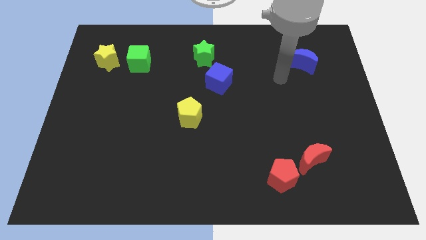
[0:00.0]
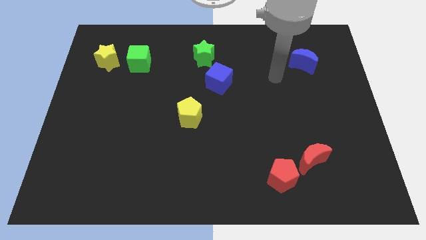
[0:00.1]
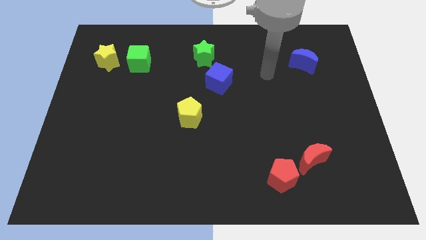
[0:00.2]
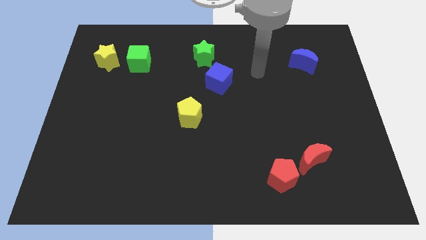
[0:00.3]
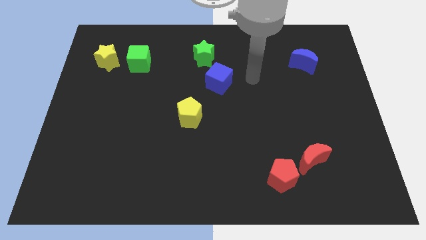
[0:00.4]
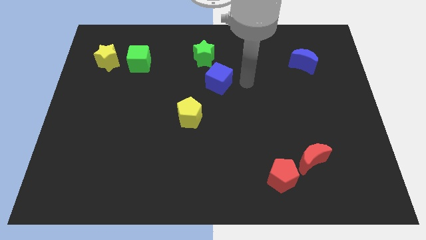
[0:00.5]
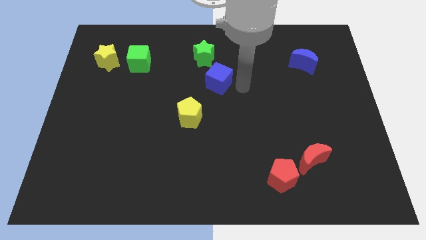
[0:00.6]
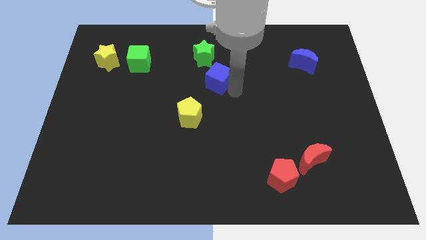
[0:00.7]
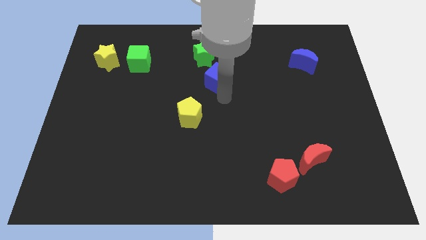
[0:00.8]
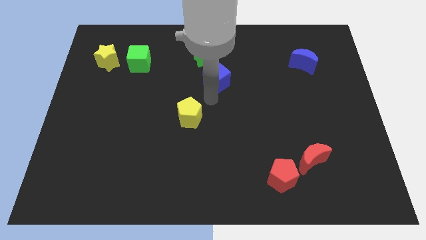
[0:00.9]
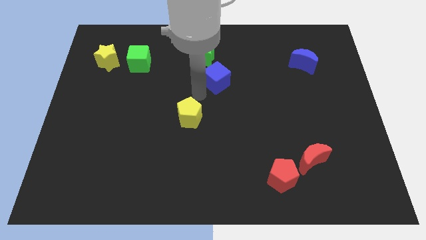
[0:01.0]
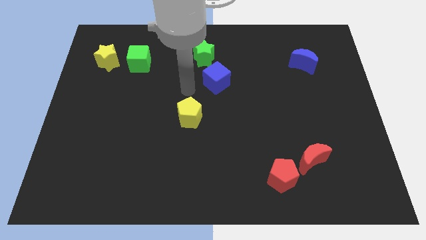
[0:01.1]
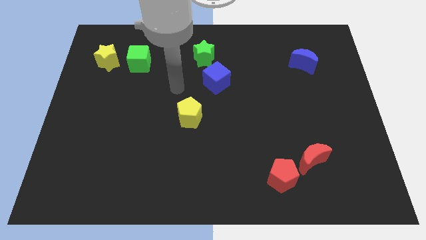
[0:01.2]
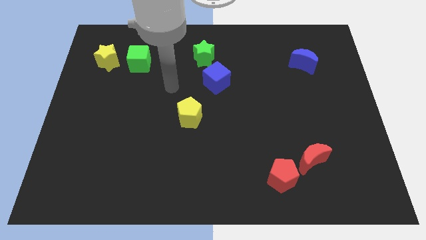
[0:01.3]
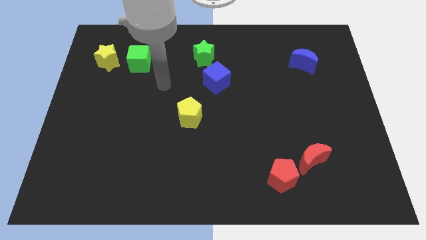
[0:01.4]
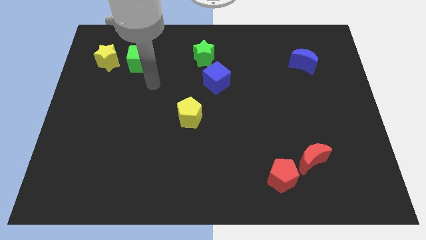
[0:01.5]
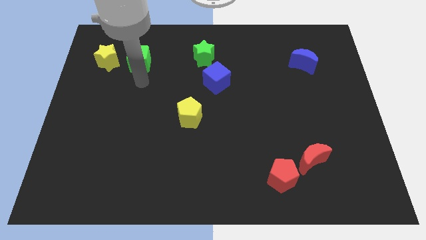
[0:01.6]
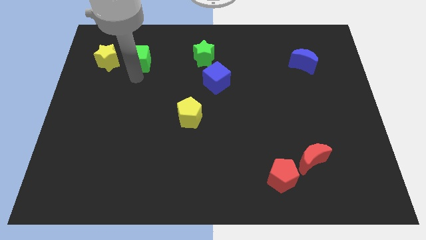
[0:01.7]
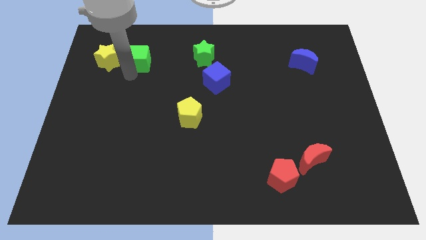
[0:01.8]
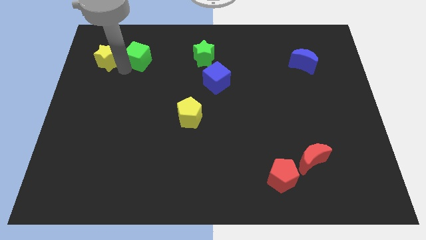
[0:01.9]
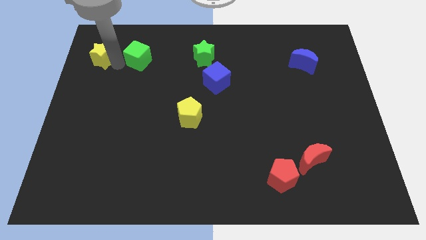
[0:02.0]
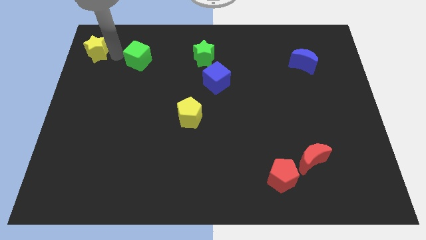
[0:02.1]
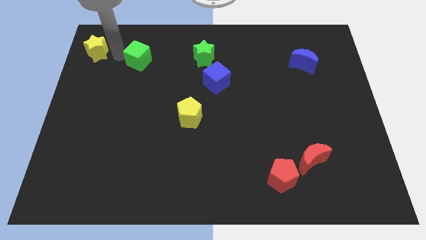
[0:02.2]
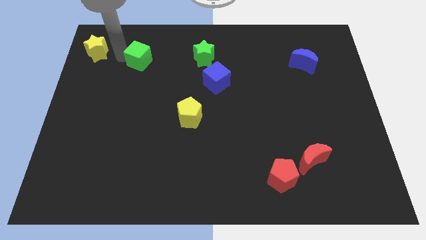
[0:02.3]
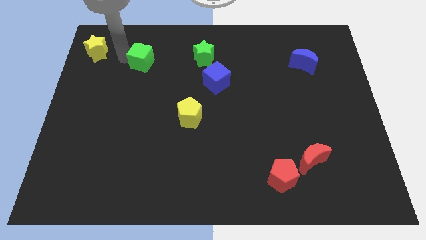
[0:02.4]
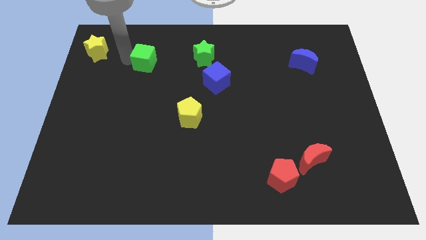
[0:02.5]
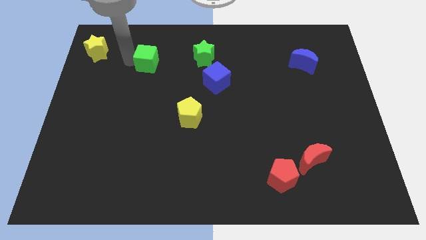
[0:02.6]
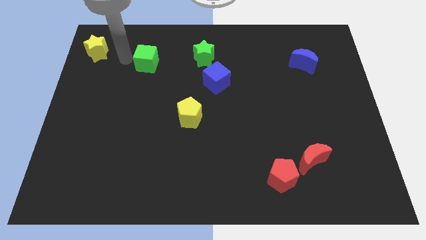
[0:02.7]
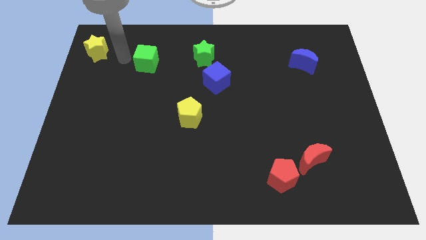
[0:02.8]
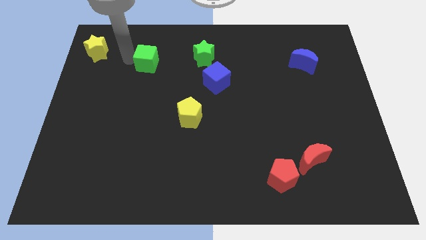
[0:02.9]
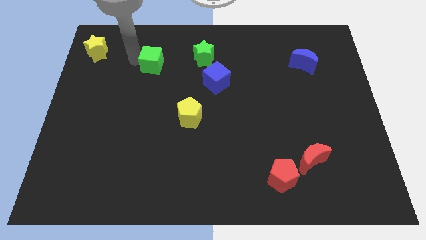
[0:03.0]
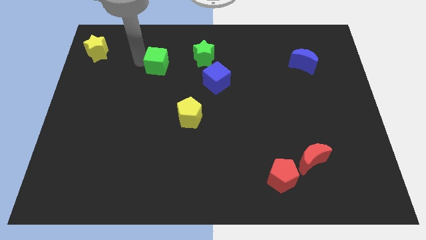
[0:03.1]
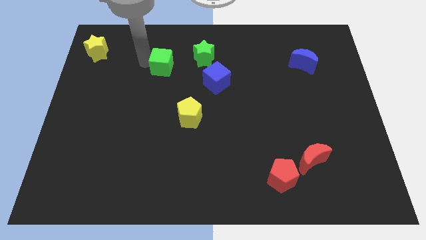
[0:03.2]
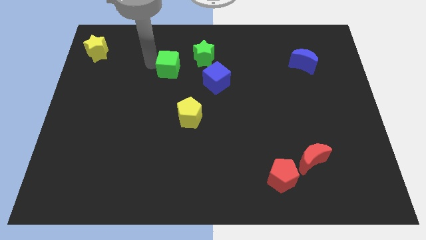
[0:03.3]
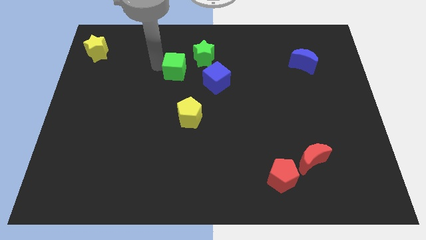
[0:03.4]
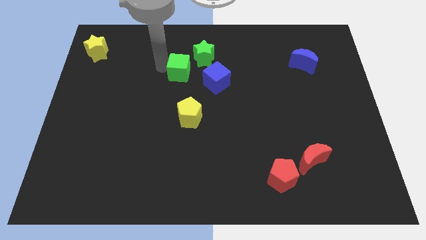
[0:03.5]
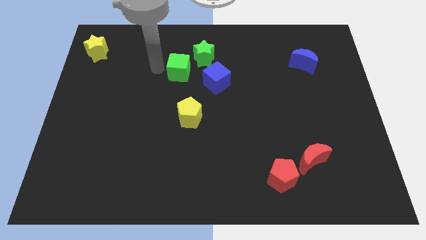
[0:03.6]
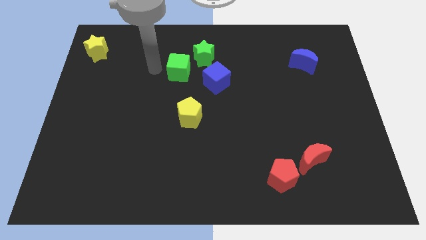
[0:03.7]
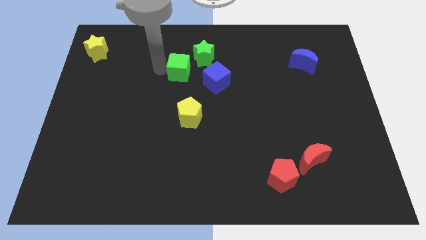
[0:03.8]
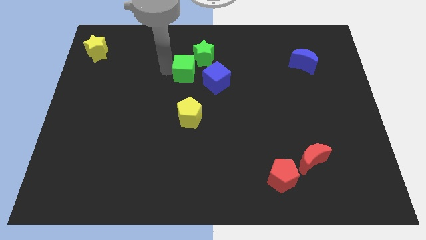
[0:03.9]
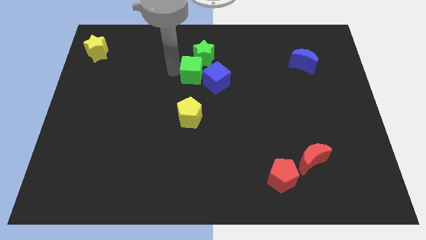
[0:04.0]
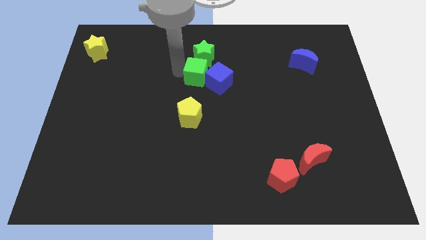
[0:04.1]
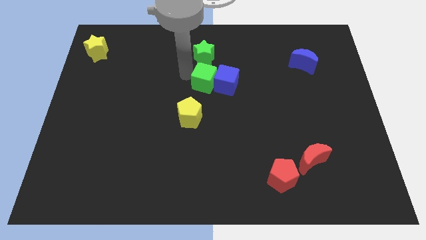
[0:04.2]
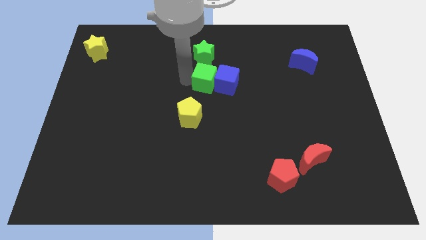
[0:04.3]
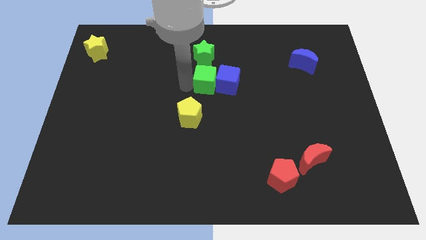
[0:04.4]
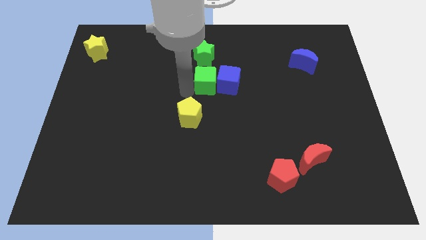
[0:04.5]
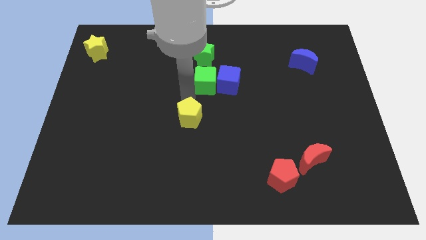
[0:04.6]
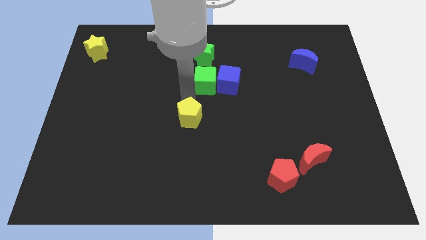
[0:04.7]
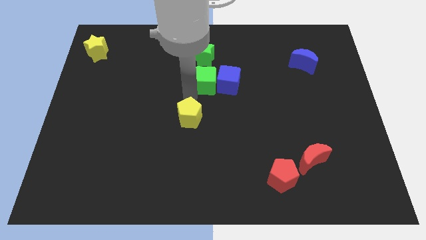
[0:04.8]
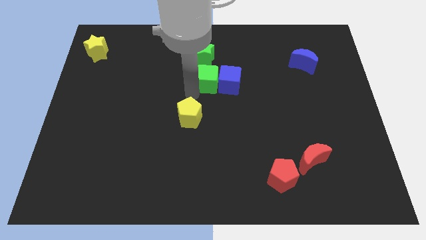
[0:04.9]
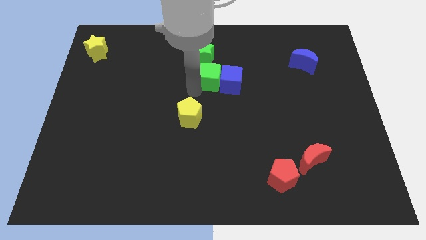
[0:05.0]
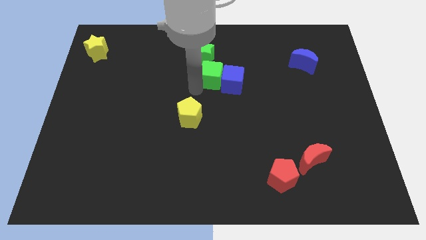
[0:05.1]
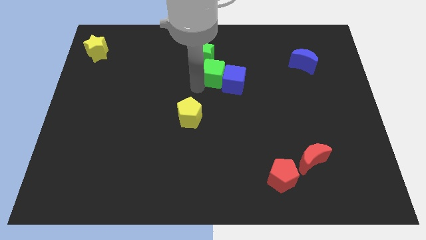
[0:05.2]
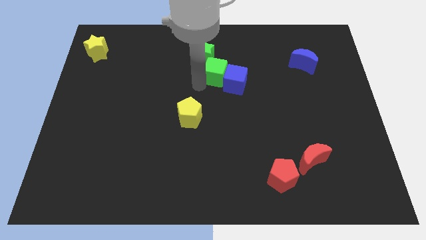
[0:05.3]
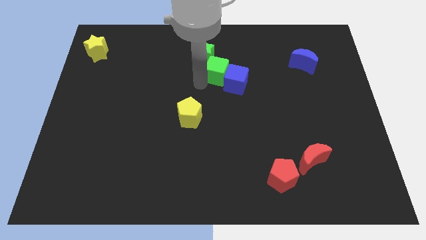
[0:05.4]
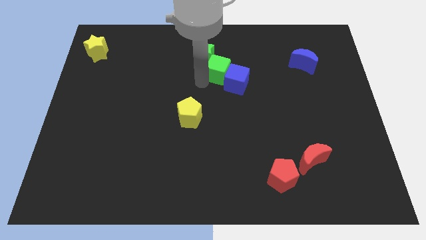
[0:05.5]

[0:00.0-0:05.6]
push the green cube to the right

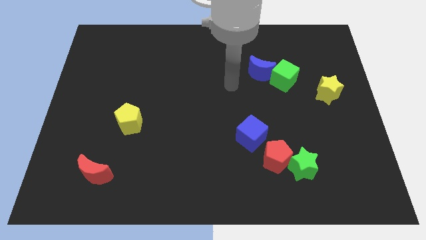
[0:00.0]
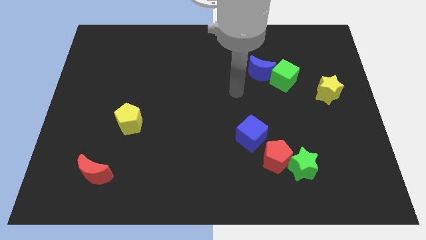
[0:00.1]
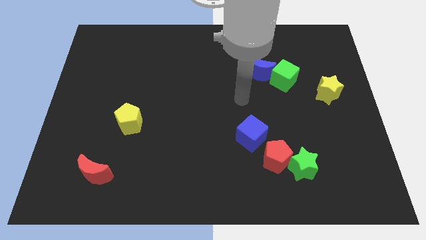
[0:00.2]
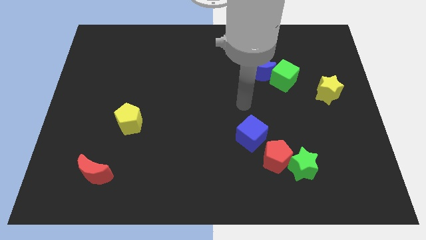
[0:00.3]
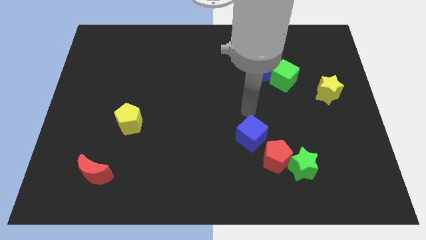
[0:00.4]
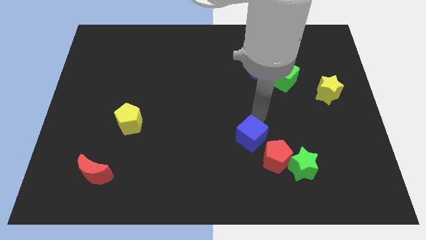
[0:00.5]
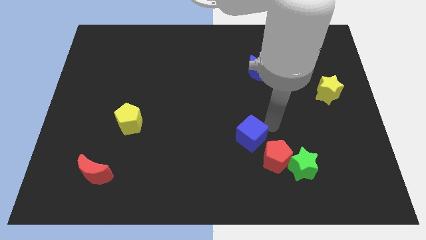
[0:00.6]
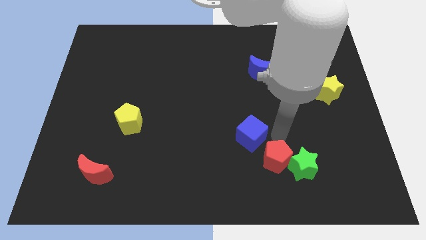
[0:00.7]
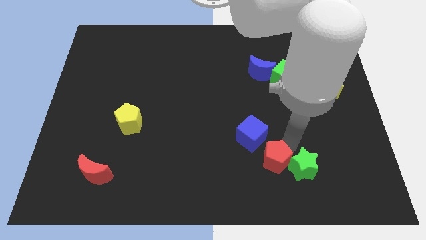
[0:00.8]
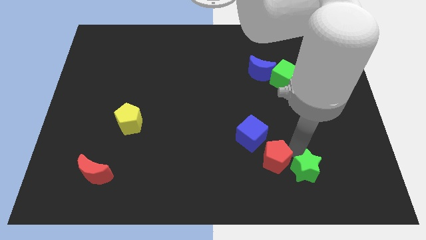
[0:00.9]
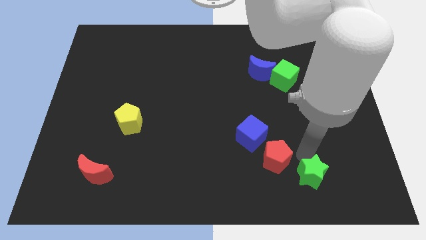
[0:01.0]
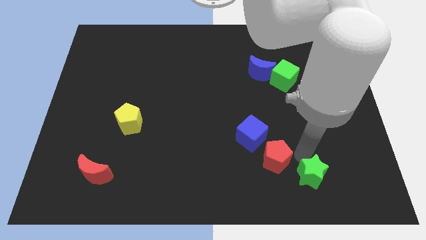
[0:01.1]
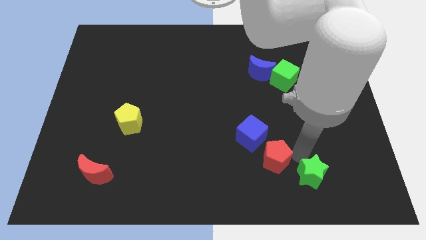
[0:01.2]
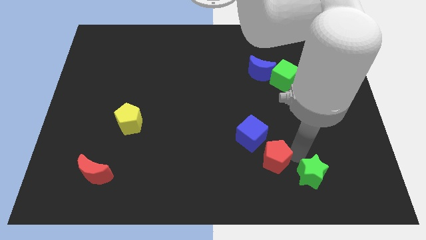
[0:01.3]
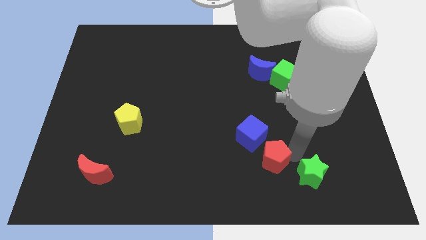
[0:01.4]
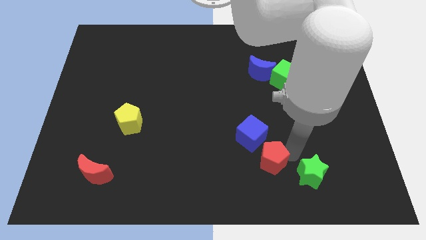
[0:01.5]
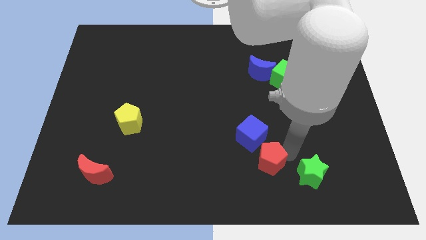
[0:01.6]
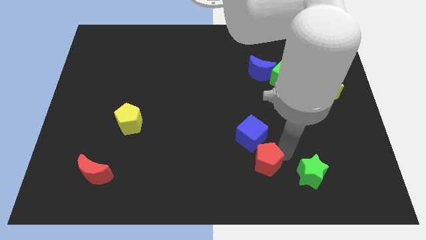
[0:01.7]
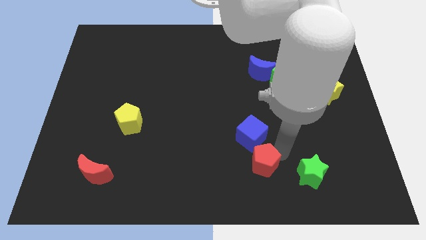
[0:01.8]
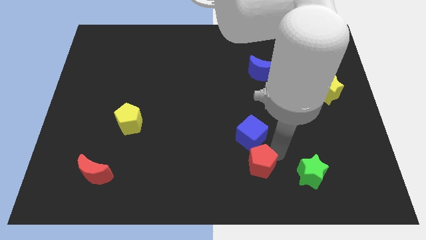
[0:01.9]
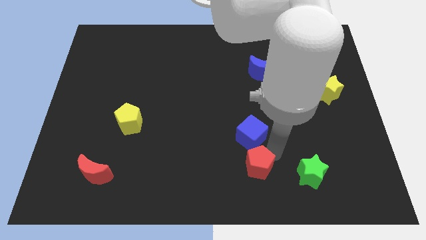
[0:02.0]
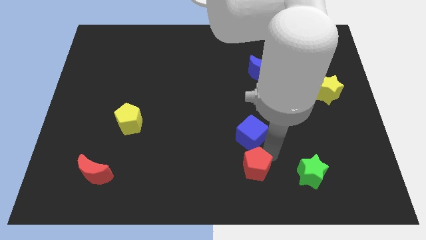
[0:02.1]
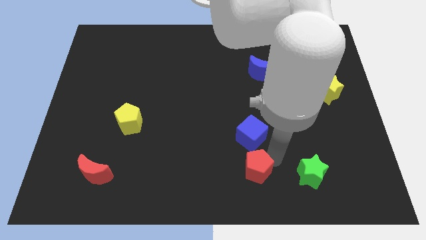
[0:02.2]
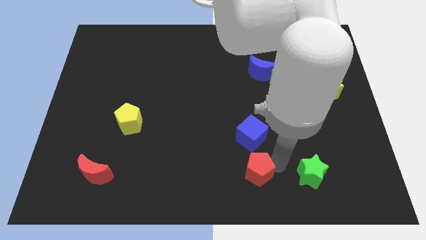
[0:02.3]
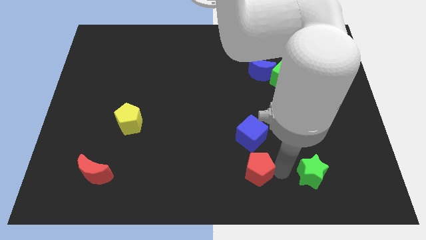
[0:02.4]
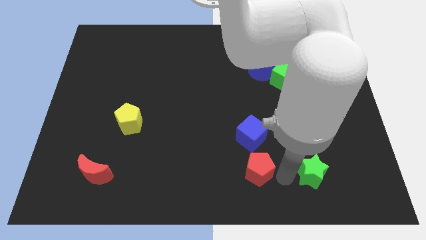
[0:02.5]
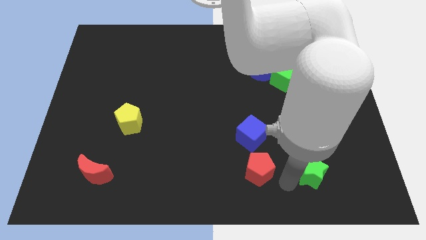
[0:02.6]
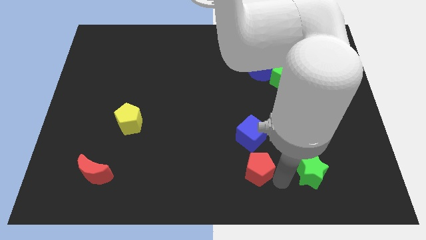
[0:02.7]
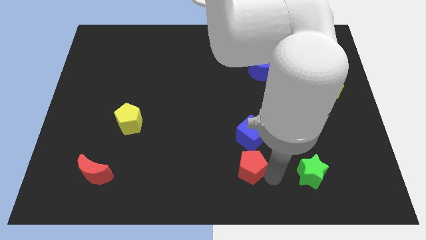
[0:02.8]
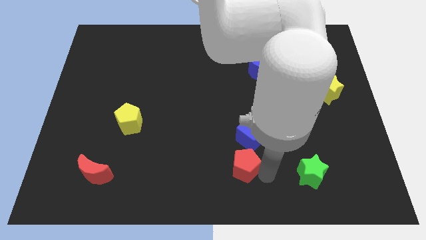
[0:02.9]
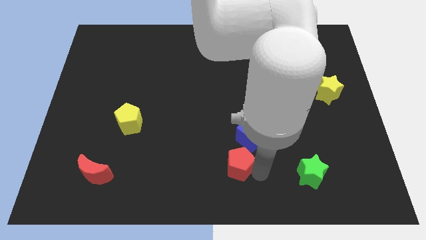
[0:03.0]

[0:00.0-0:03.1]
slide the red pentagon left slightly
